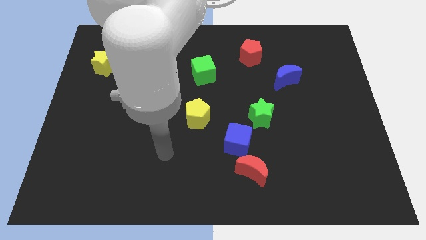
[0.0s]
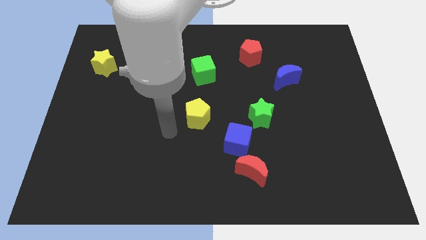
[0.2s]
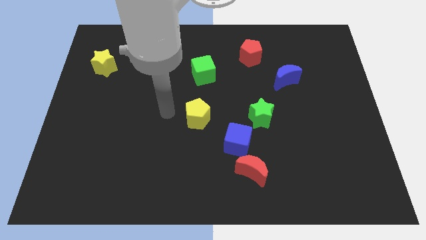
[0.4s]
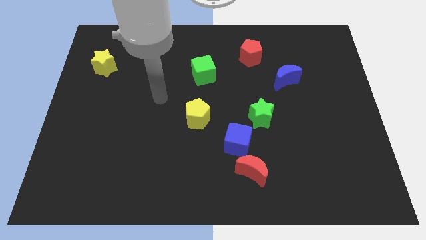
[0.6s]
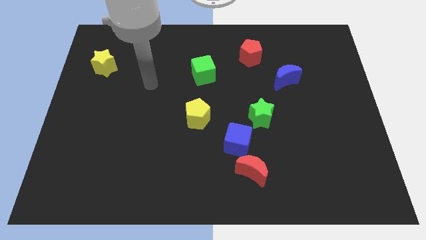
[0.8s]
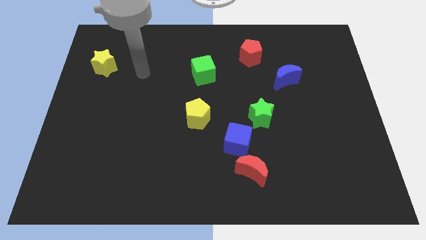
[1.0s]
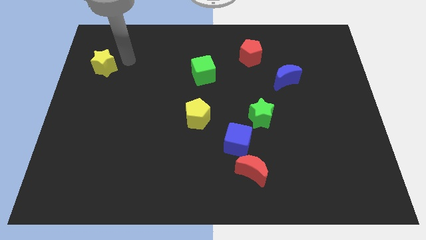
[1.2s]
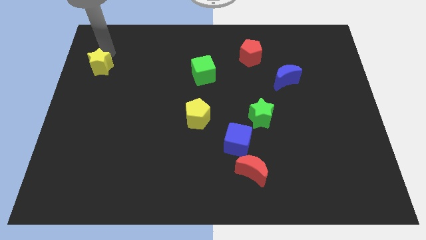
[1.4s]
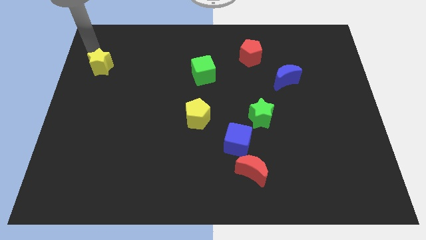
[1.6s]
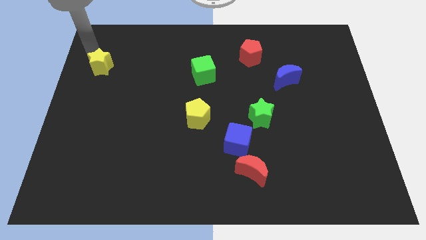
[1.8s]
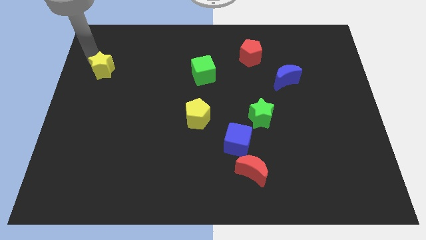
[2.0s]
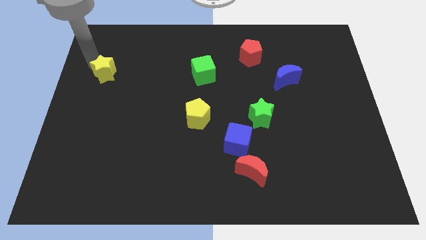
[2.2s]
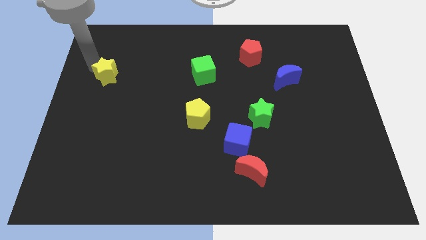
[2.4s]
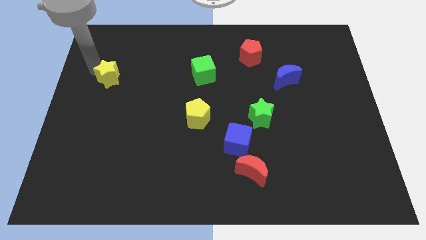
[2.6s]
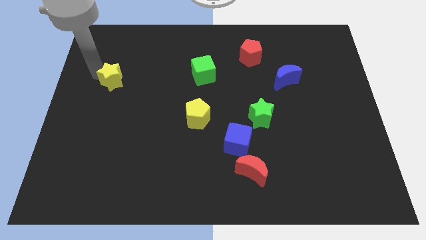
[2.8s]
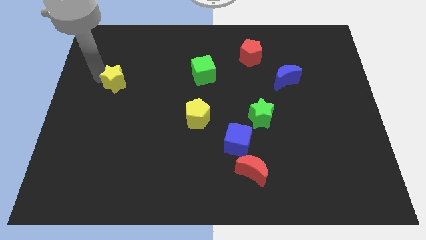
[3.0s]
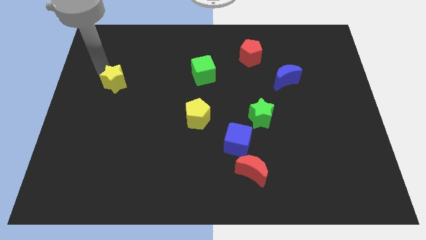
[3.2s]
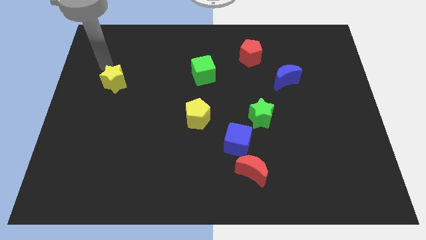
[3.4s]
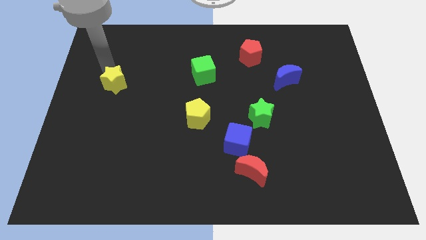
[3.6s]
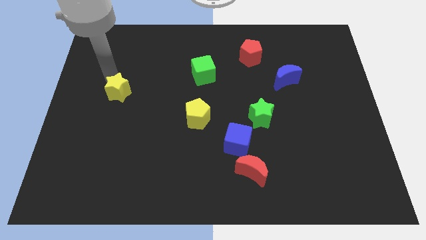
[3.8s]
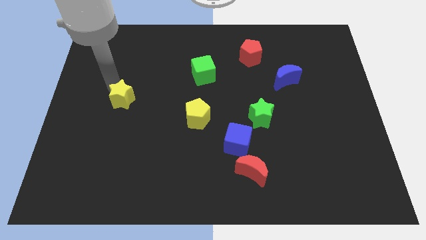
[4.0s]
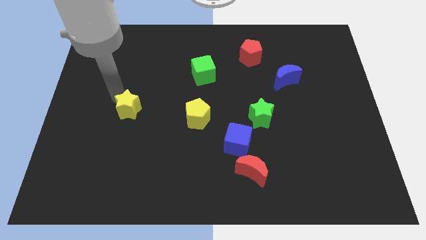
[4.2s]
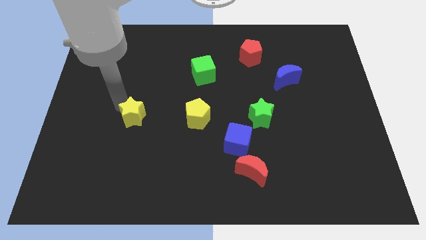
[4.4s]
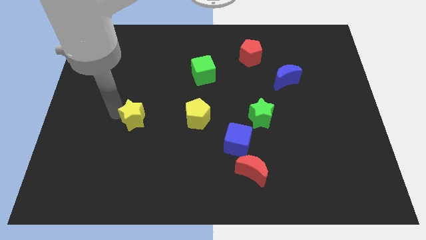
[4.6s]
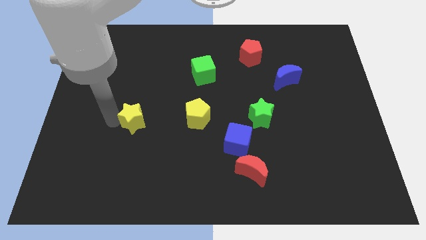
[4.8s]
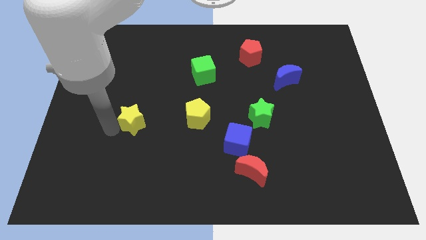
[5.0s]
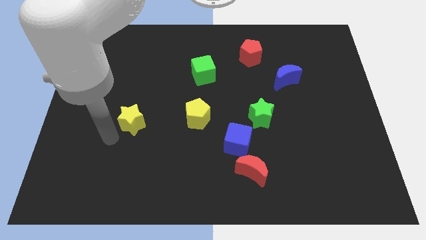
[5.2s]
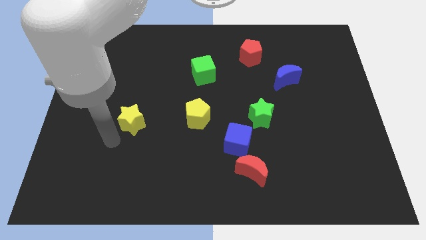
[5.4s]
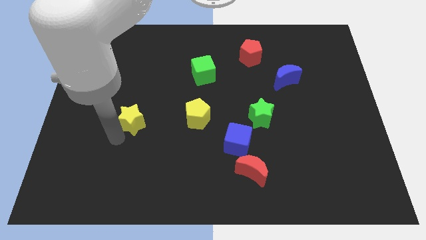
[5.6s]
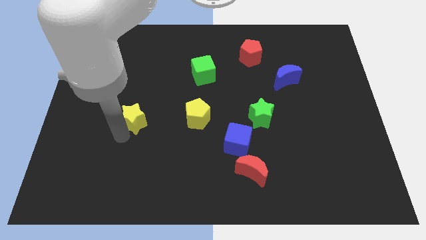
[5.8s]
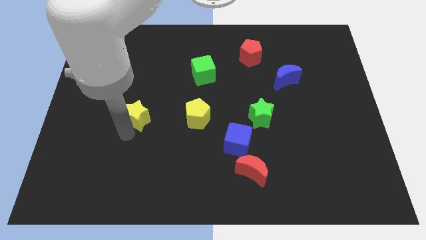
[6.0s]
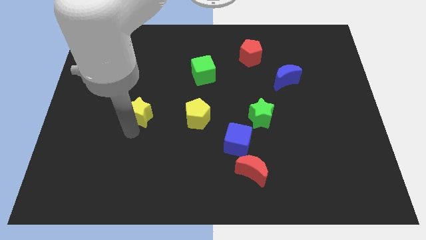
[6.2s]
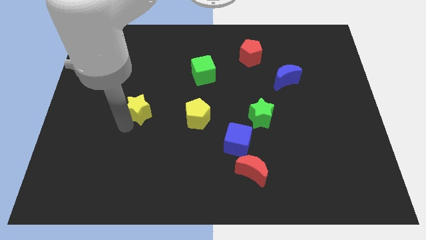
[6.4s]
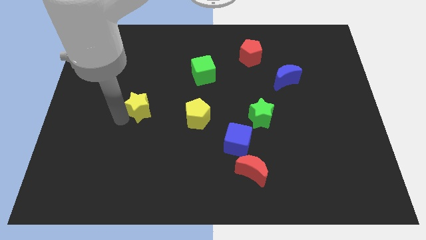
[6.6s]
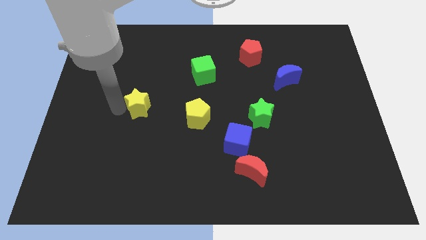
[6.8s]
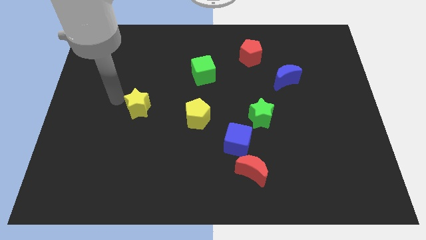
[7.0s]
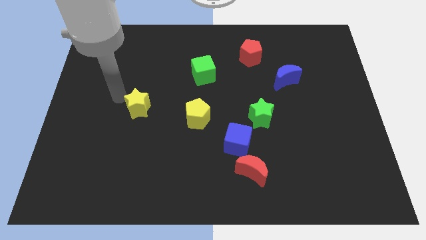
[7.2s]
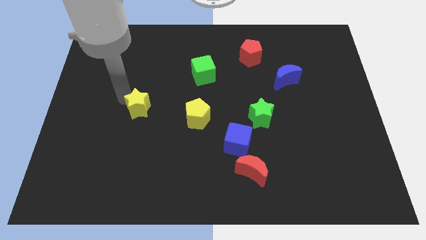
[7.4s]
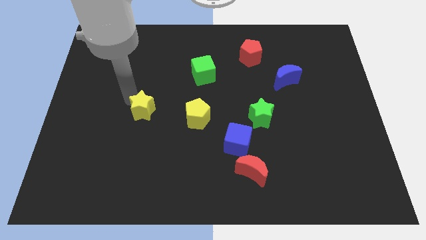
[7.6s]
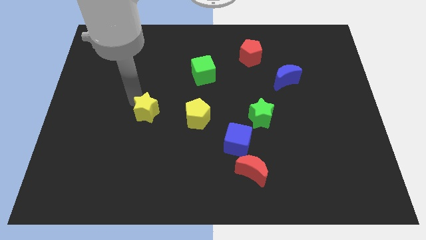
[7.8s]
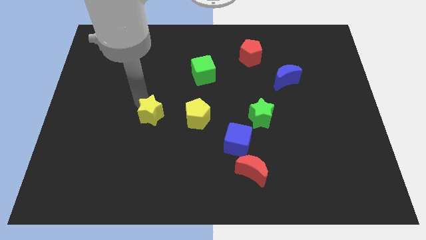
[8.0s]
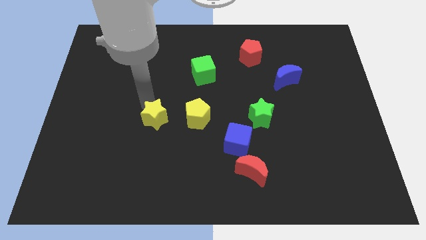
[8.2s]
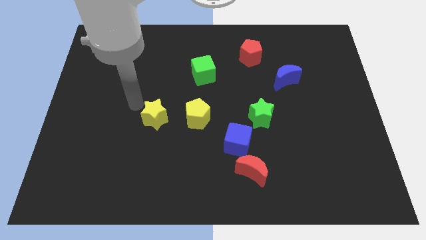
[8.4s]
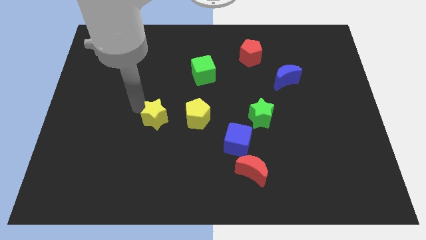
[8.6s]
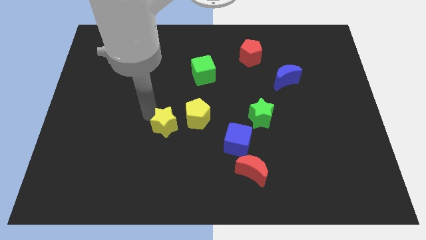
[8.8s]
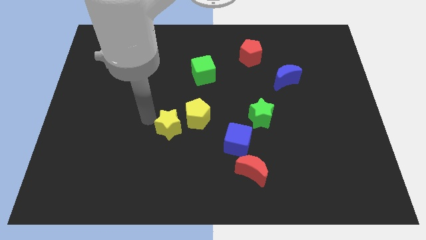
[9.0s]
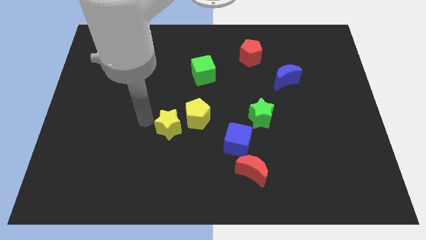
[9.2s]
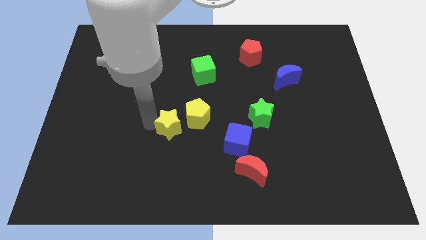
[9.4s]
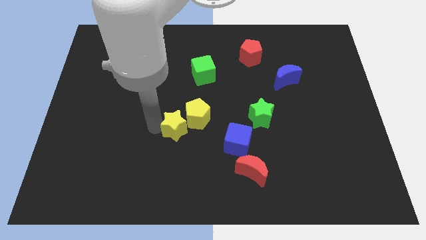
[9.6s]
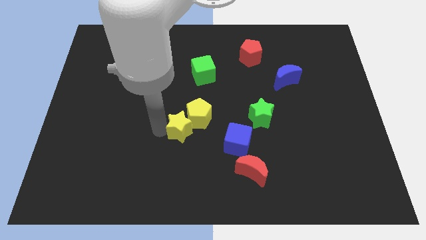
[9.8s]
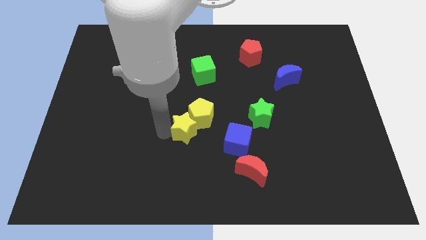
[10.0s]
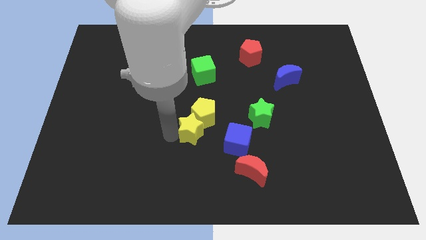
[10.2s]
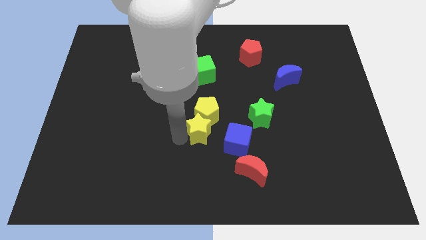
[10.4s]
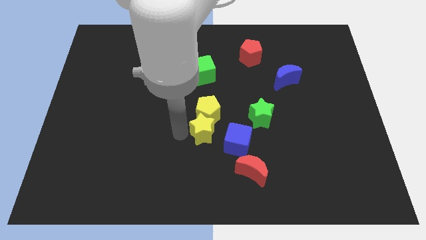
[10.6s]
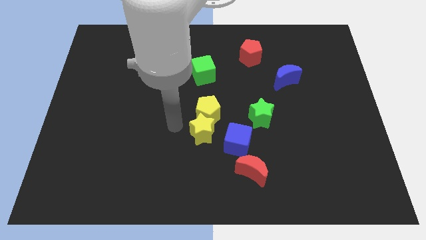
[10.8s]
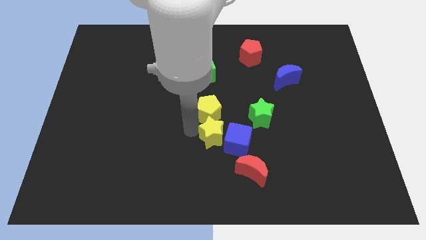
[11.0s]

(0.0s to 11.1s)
put the yellow star to the blue cube

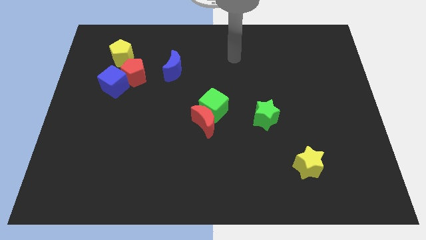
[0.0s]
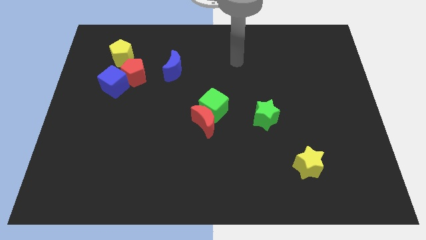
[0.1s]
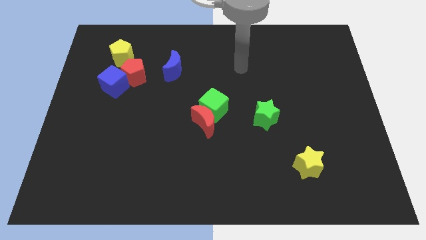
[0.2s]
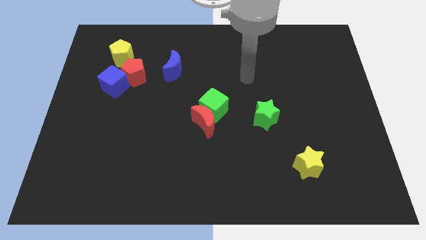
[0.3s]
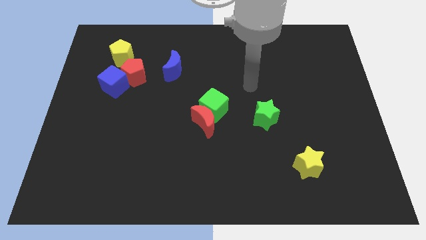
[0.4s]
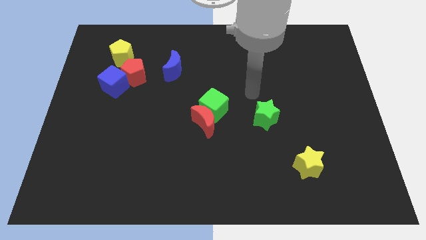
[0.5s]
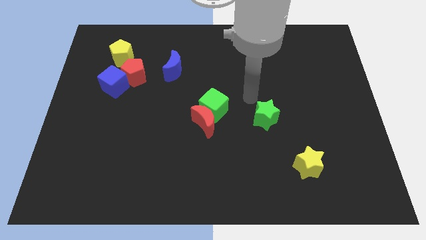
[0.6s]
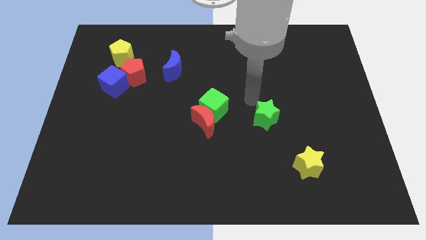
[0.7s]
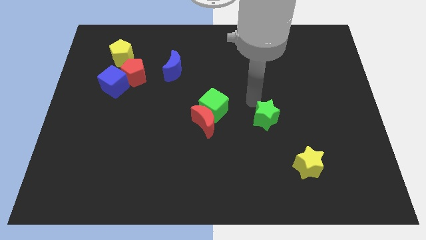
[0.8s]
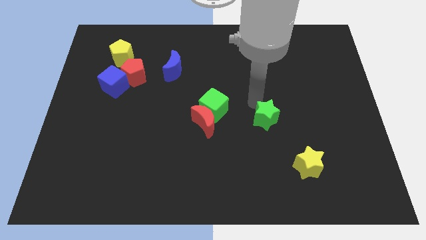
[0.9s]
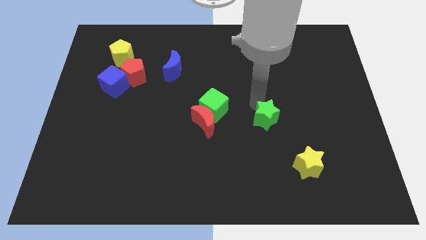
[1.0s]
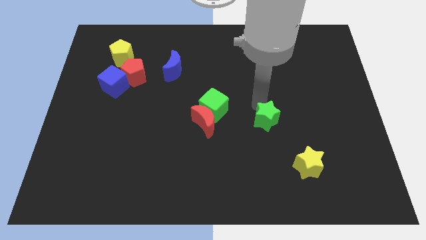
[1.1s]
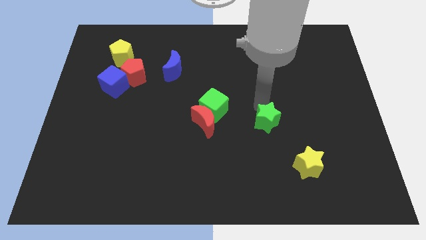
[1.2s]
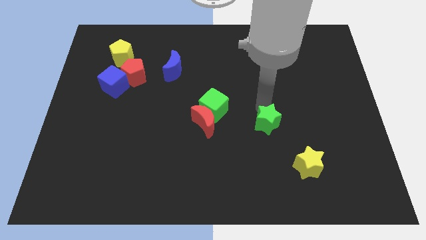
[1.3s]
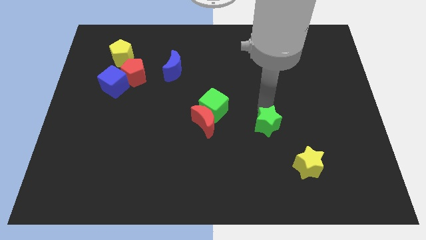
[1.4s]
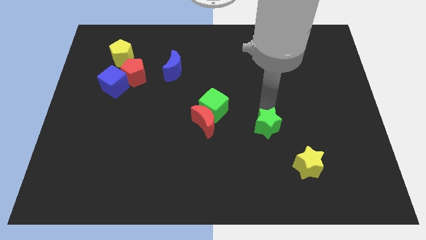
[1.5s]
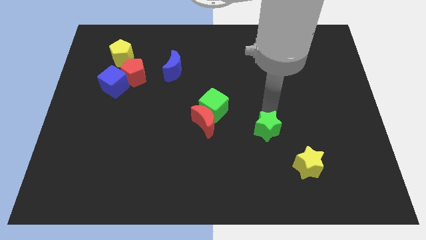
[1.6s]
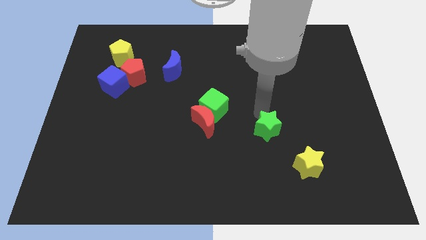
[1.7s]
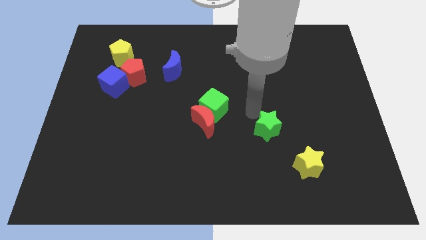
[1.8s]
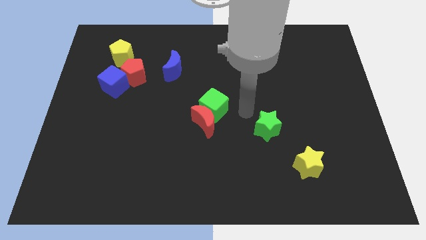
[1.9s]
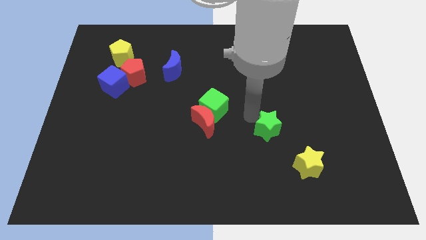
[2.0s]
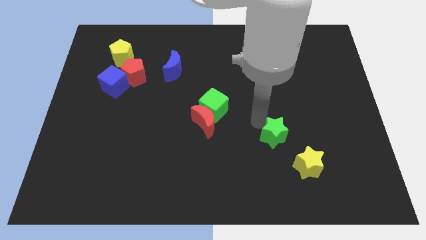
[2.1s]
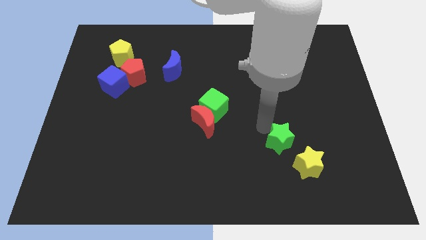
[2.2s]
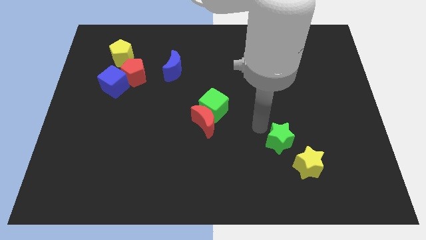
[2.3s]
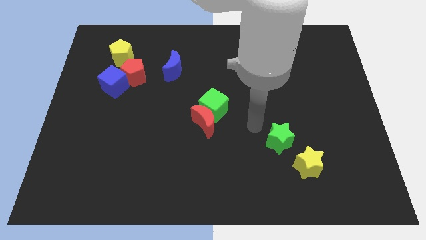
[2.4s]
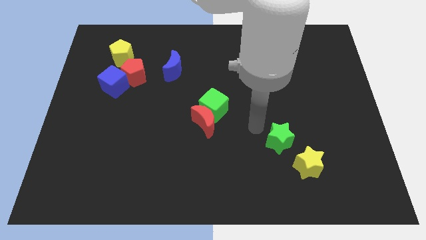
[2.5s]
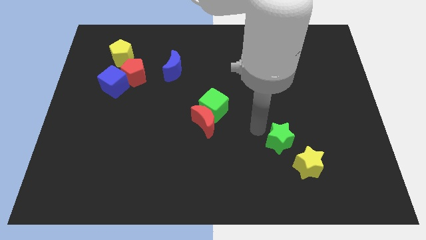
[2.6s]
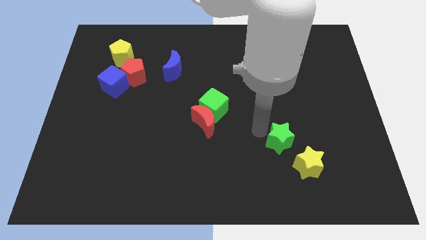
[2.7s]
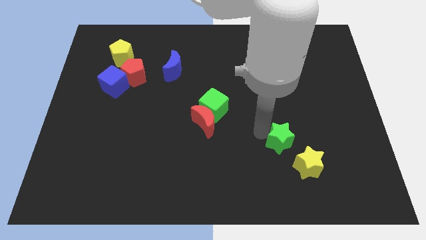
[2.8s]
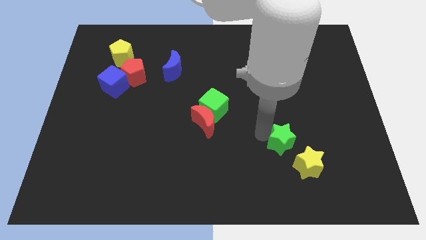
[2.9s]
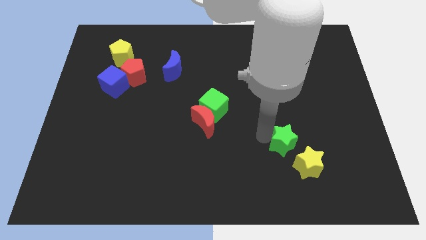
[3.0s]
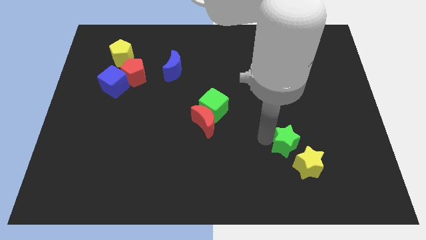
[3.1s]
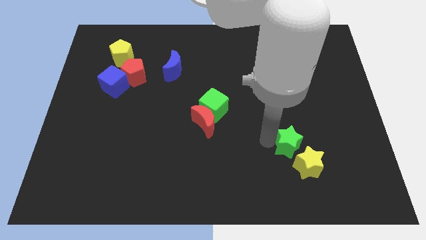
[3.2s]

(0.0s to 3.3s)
move the green star close to the yellow star
